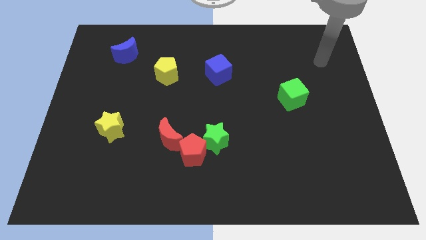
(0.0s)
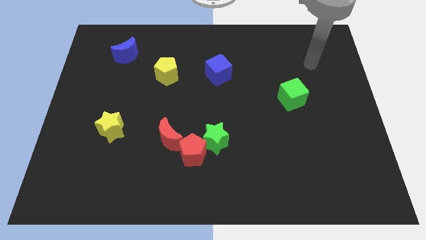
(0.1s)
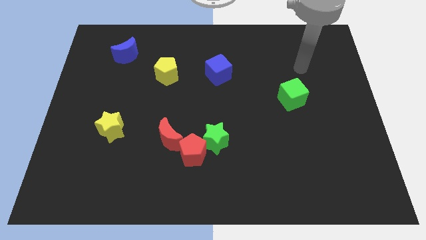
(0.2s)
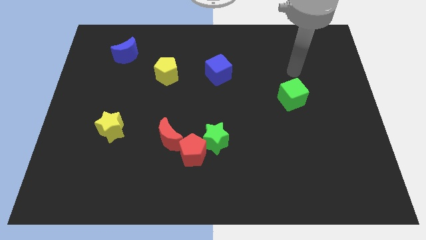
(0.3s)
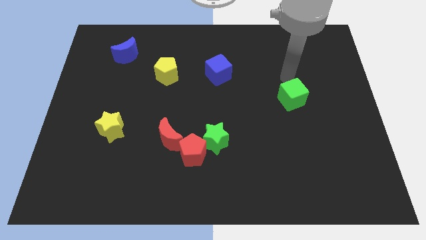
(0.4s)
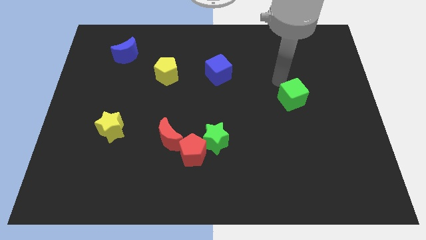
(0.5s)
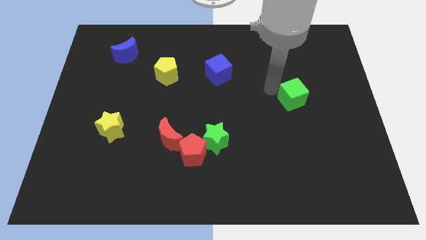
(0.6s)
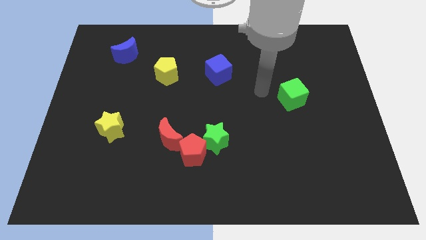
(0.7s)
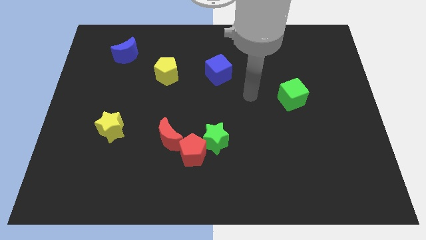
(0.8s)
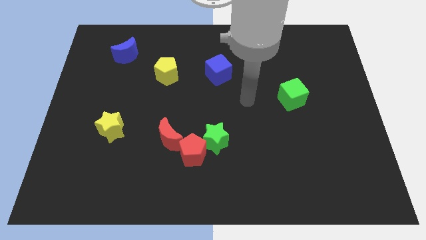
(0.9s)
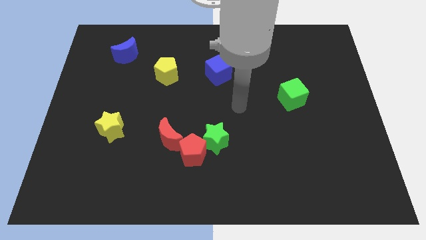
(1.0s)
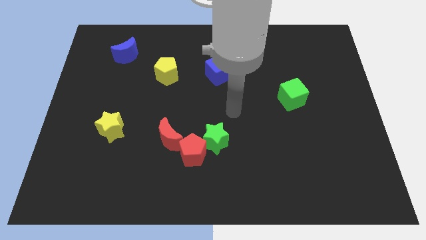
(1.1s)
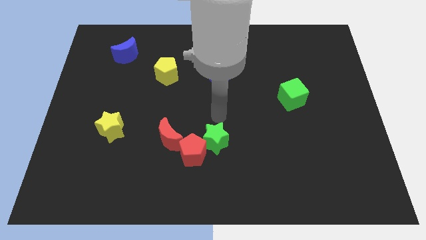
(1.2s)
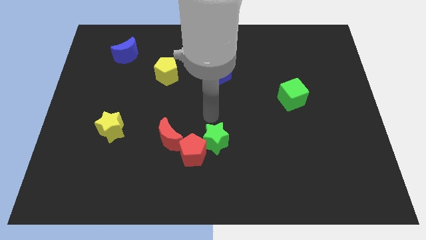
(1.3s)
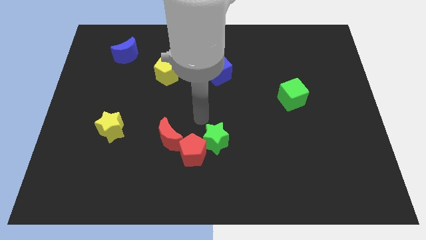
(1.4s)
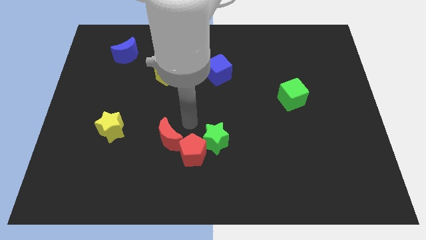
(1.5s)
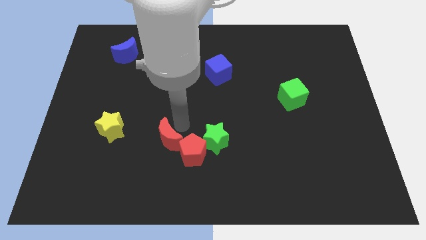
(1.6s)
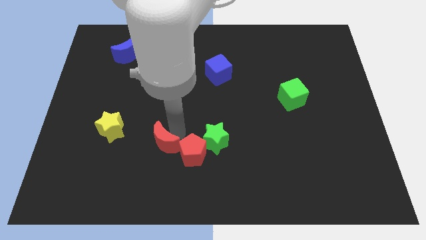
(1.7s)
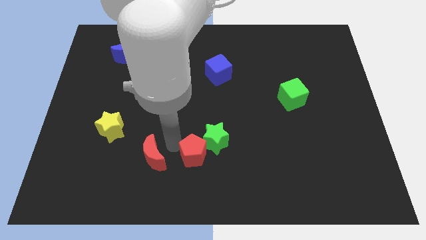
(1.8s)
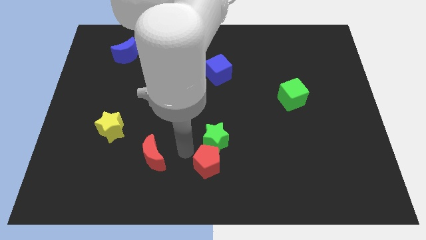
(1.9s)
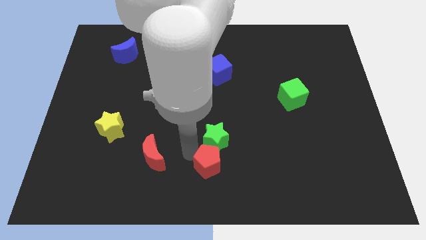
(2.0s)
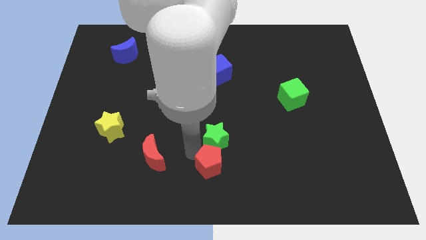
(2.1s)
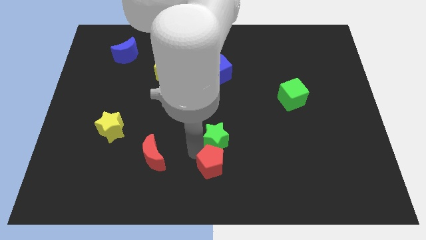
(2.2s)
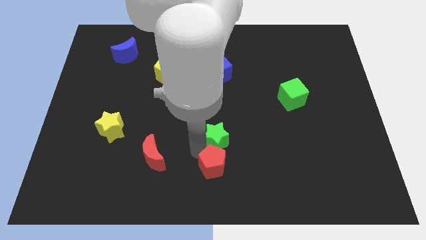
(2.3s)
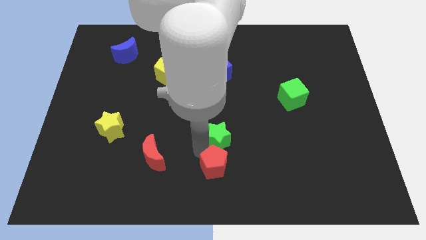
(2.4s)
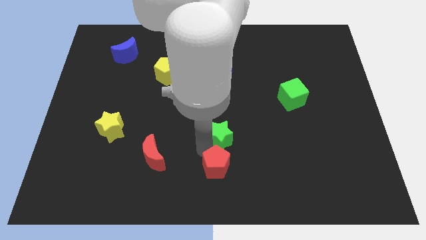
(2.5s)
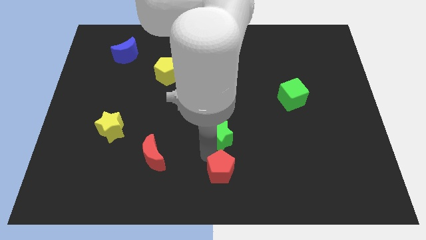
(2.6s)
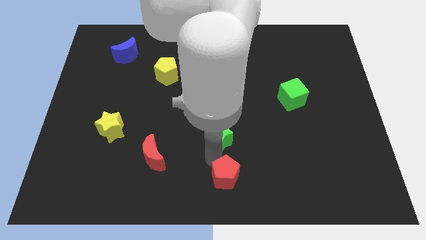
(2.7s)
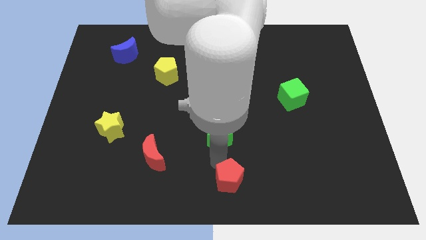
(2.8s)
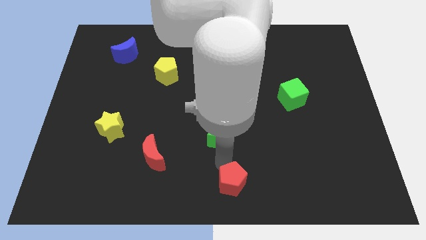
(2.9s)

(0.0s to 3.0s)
move the green star away from the red pentagon

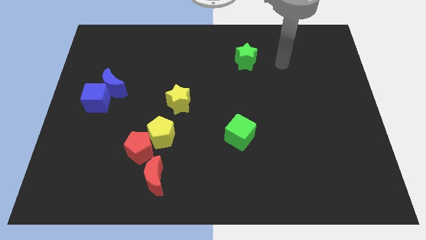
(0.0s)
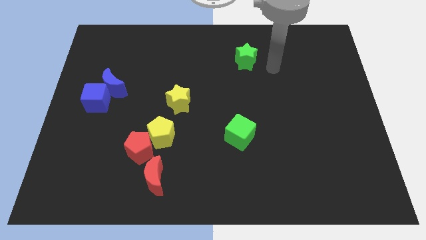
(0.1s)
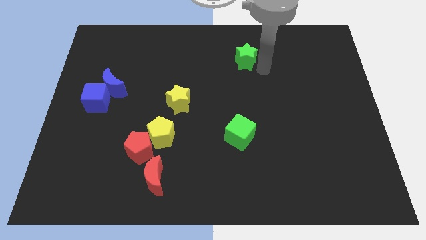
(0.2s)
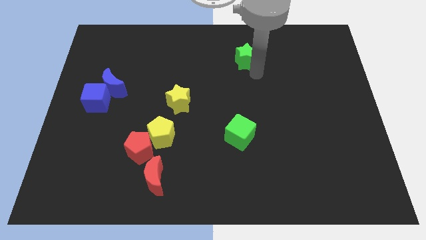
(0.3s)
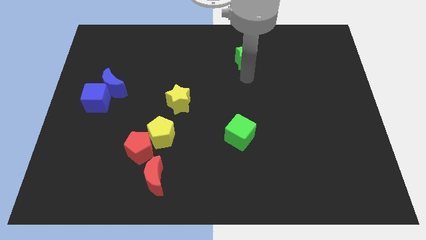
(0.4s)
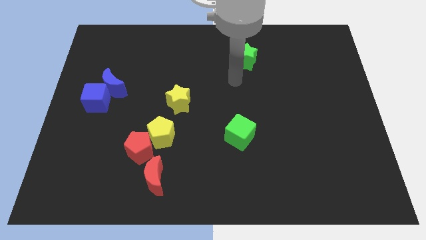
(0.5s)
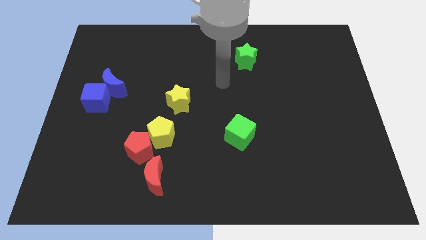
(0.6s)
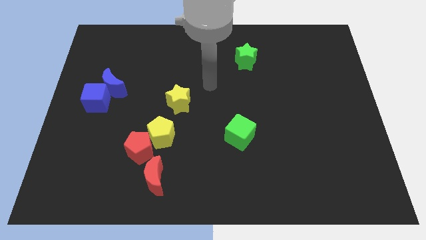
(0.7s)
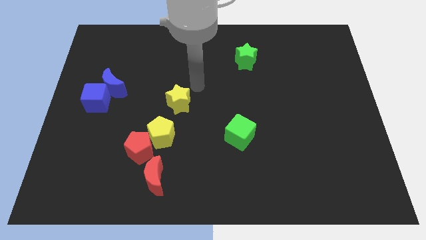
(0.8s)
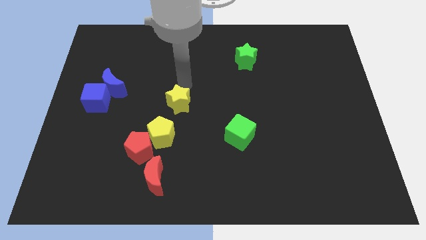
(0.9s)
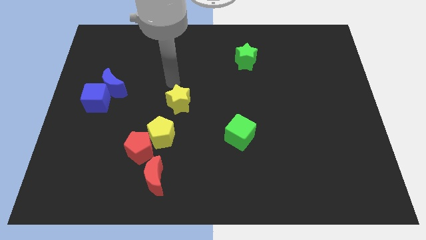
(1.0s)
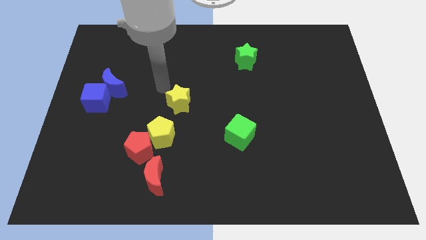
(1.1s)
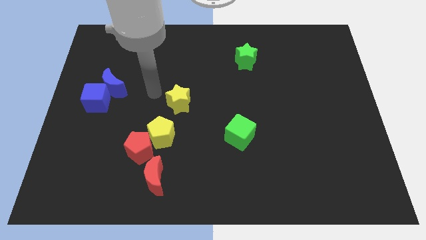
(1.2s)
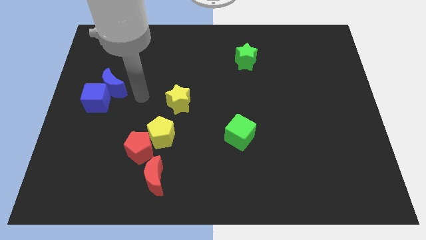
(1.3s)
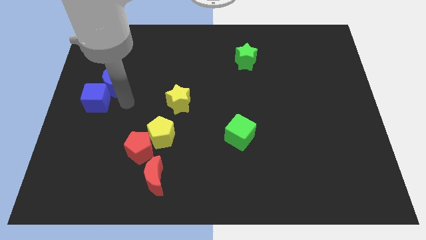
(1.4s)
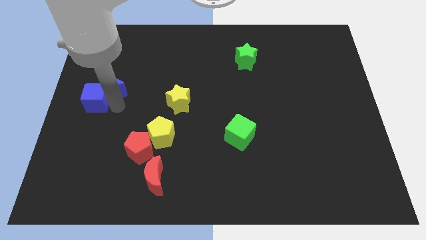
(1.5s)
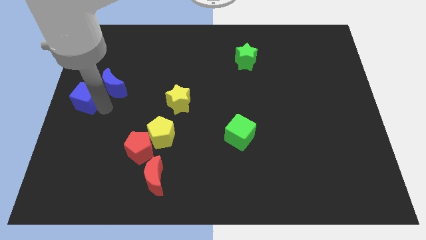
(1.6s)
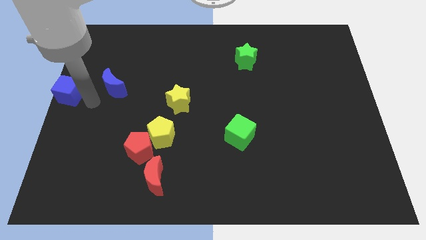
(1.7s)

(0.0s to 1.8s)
move the blue moon away from the blue cube

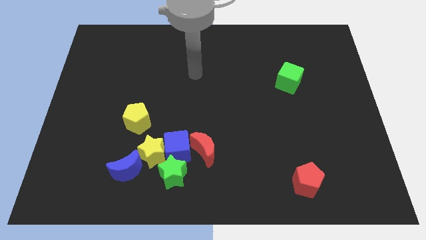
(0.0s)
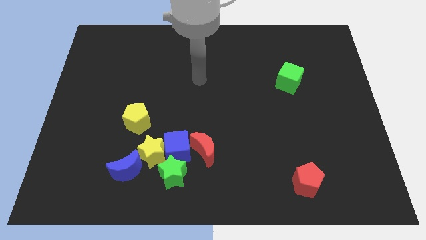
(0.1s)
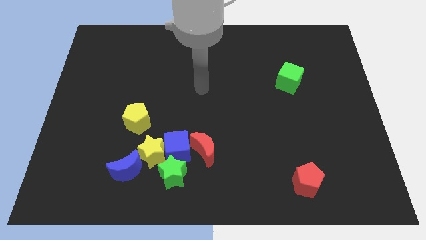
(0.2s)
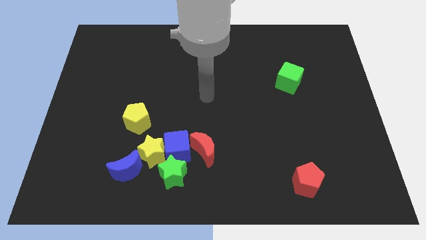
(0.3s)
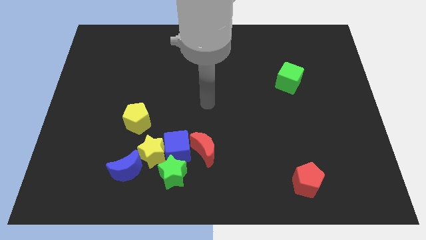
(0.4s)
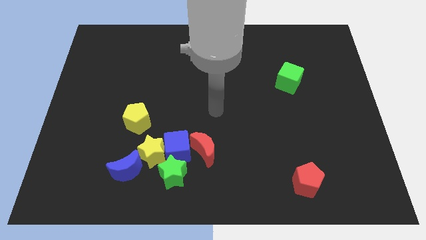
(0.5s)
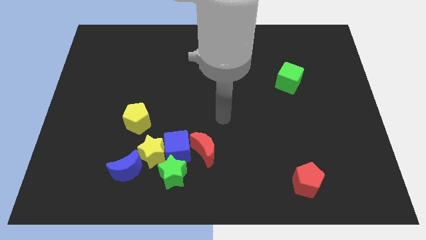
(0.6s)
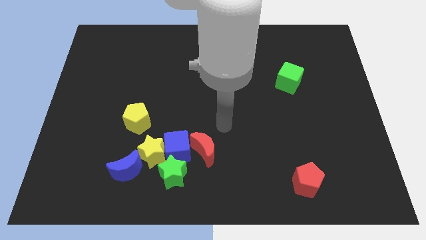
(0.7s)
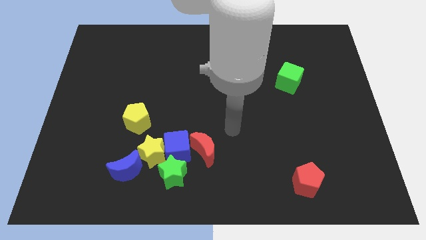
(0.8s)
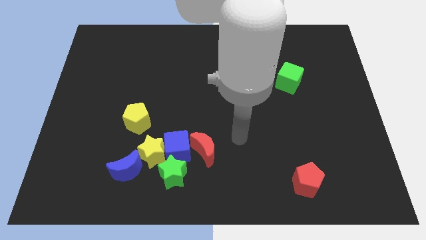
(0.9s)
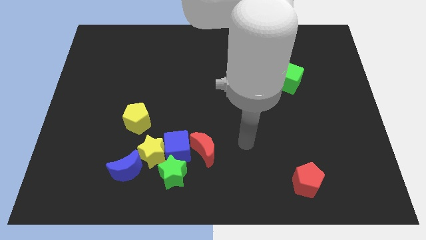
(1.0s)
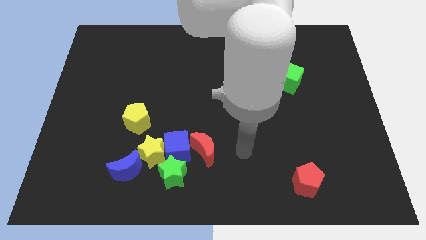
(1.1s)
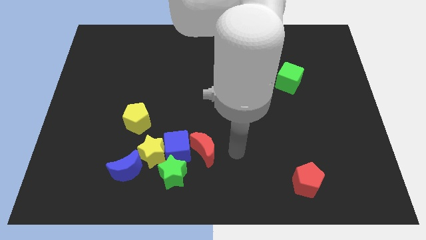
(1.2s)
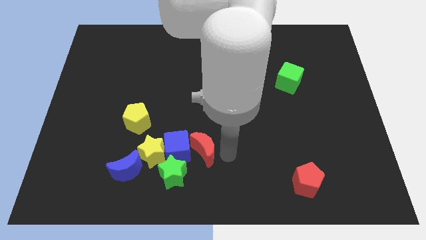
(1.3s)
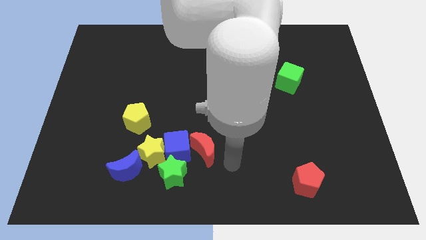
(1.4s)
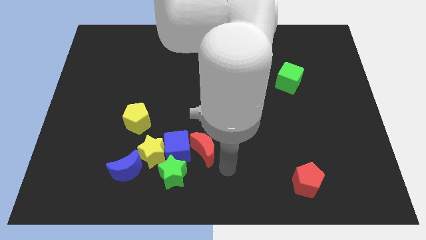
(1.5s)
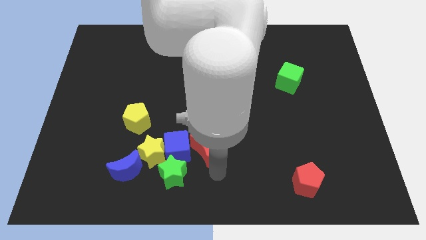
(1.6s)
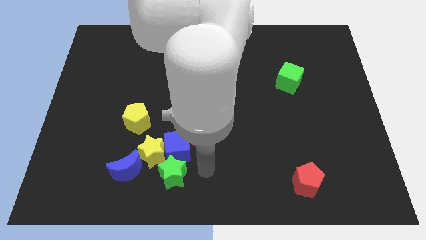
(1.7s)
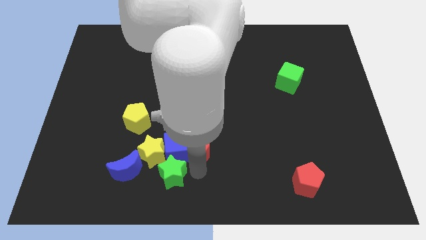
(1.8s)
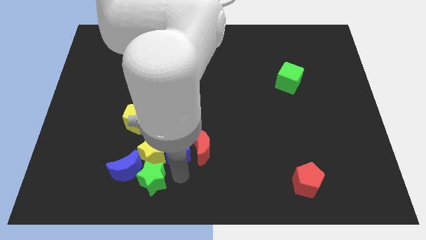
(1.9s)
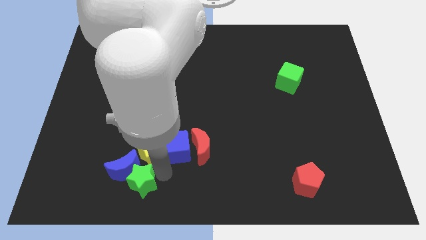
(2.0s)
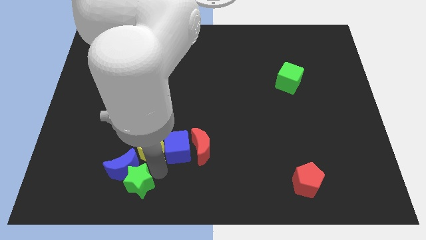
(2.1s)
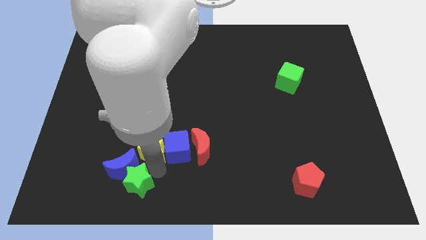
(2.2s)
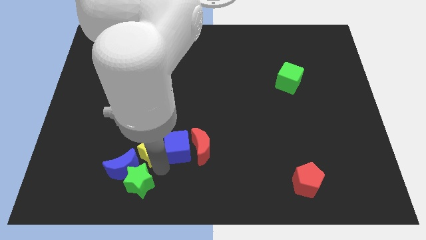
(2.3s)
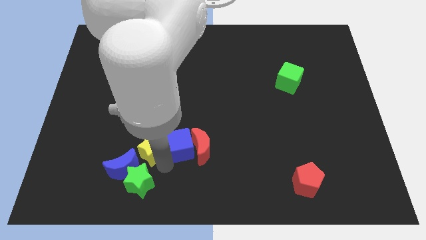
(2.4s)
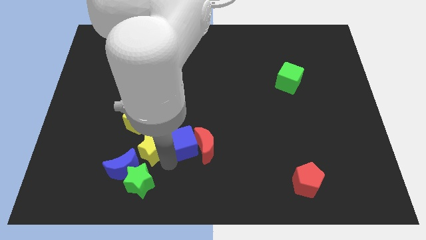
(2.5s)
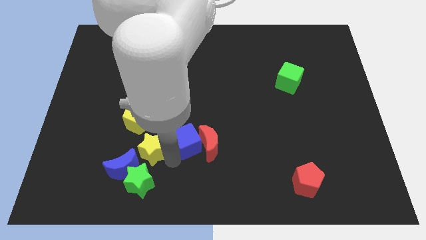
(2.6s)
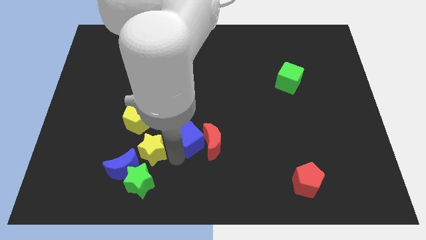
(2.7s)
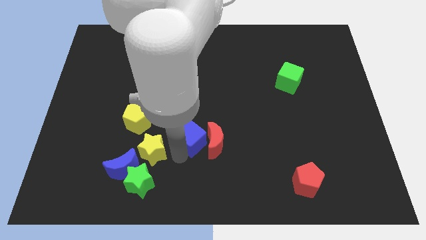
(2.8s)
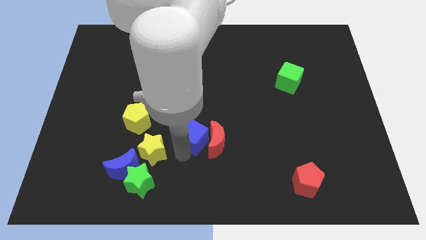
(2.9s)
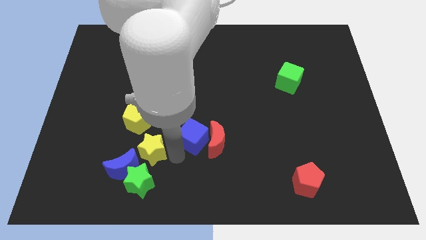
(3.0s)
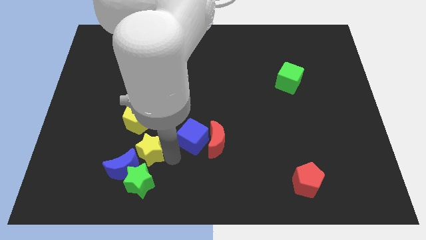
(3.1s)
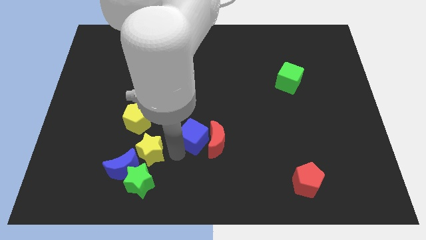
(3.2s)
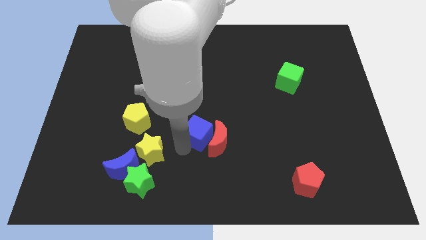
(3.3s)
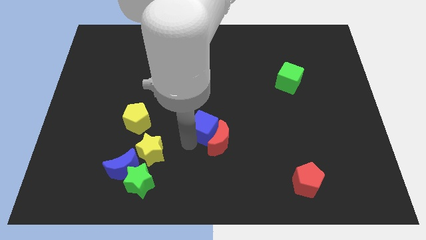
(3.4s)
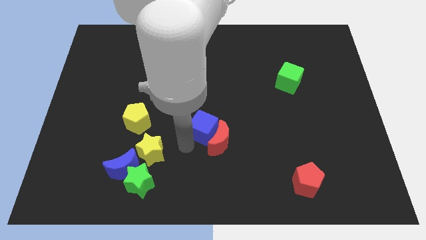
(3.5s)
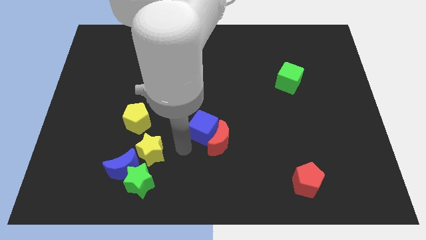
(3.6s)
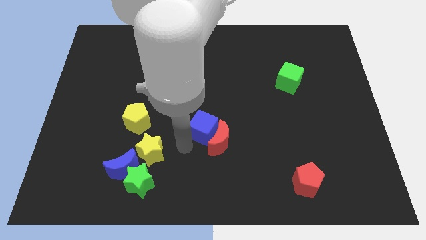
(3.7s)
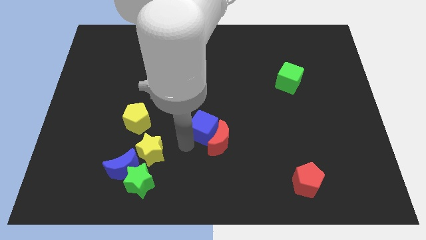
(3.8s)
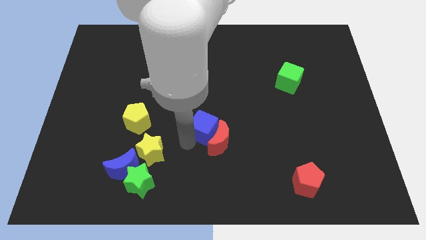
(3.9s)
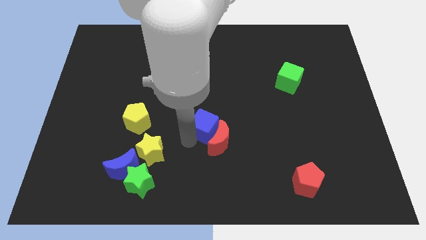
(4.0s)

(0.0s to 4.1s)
separate the blue cube from the yellow star, red moon, and green star

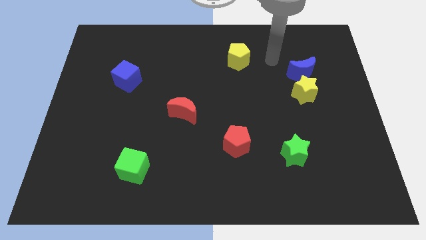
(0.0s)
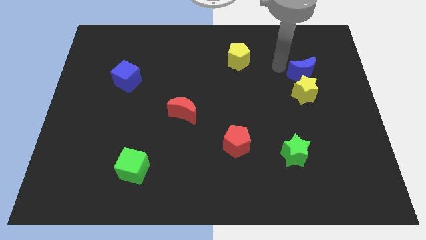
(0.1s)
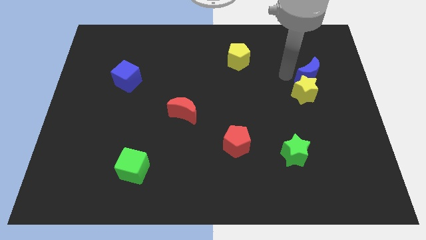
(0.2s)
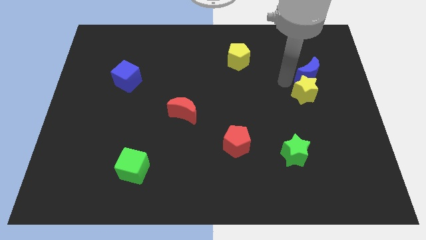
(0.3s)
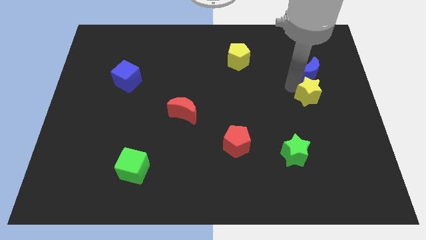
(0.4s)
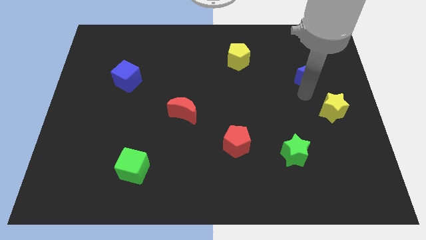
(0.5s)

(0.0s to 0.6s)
separate the blue moon from the yellow star
